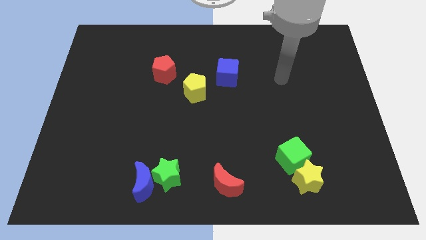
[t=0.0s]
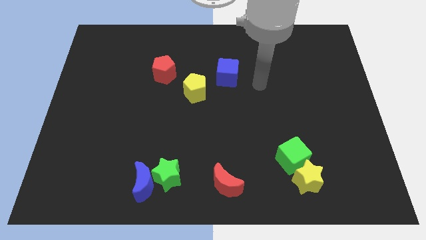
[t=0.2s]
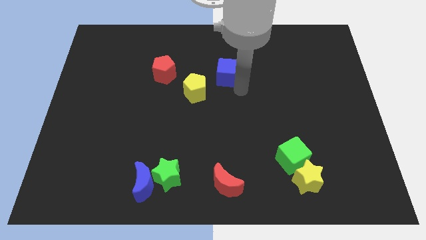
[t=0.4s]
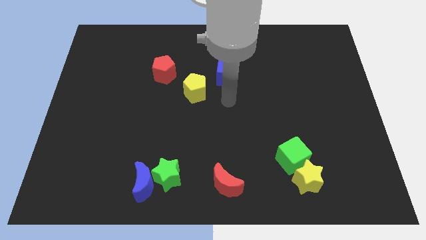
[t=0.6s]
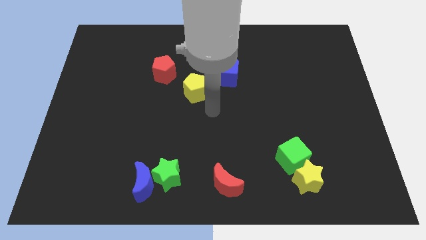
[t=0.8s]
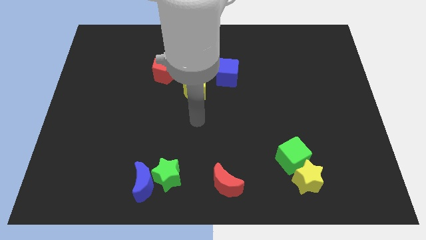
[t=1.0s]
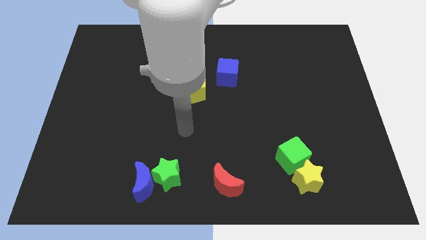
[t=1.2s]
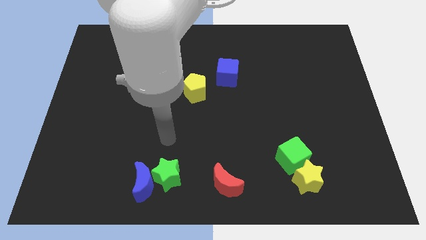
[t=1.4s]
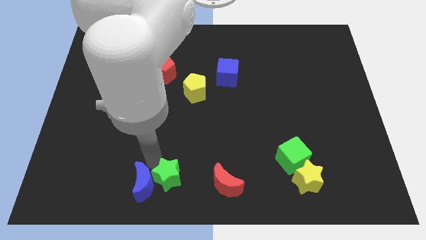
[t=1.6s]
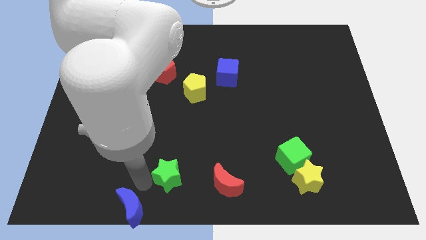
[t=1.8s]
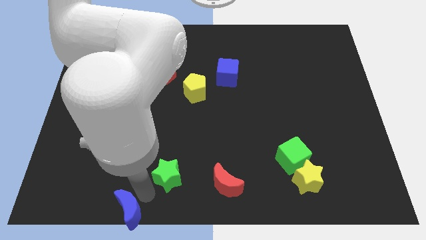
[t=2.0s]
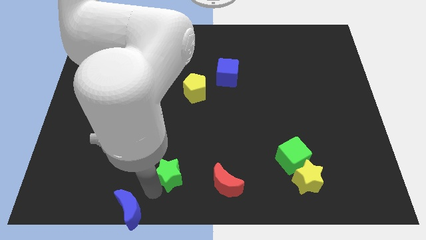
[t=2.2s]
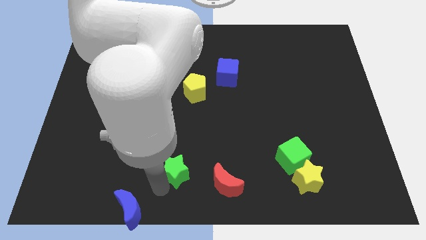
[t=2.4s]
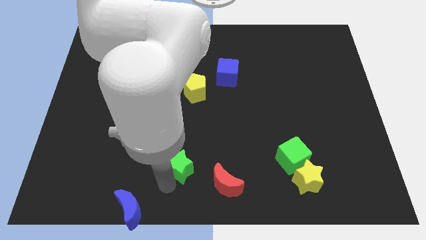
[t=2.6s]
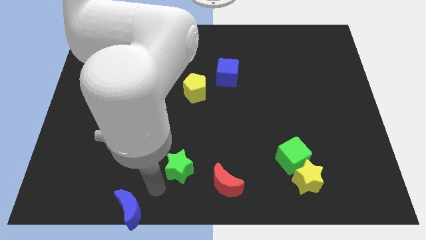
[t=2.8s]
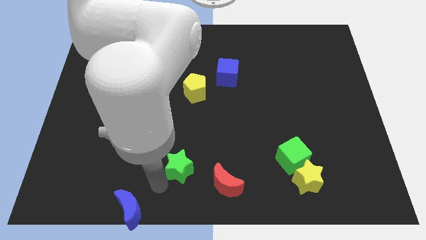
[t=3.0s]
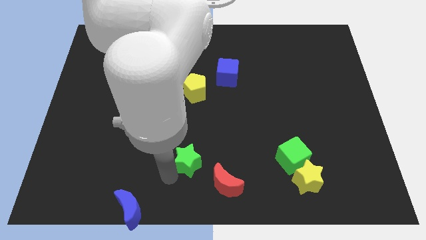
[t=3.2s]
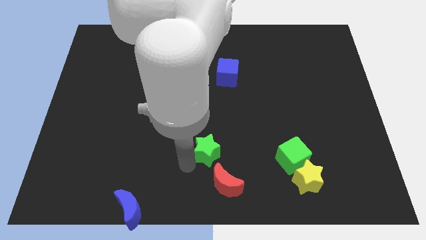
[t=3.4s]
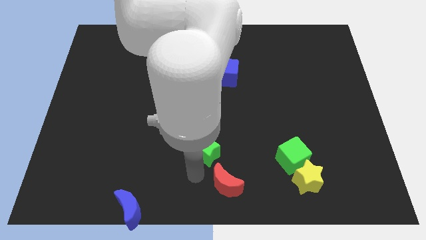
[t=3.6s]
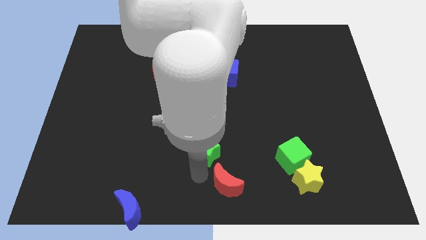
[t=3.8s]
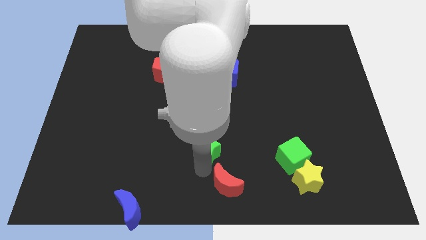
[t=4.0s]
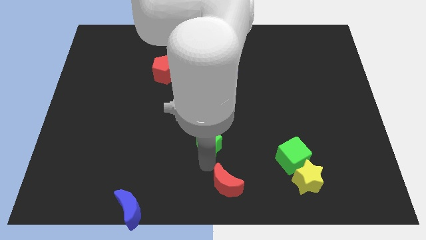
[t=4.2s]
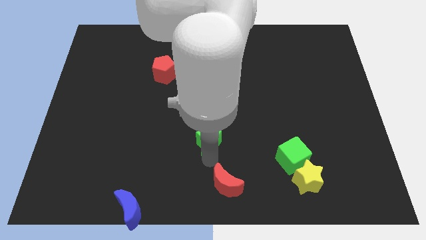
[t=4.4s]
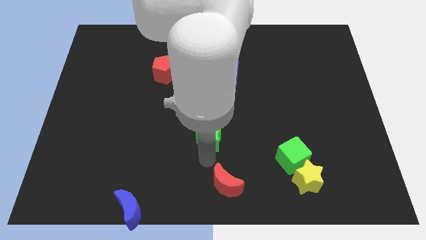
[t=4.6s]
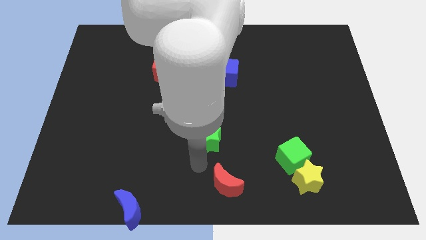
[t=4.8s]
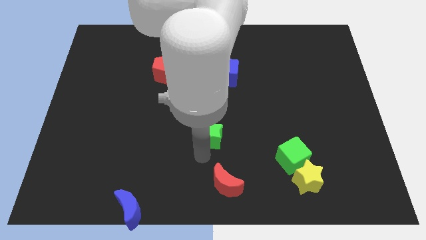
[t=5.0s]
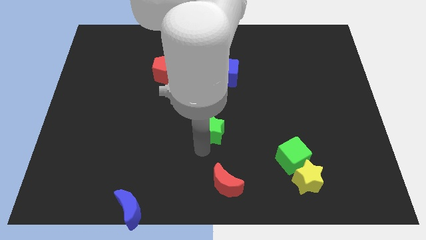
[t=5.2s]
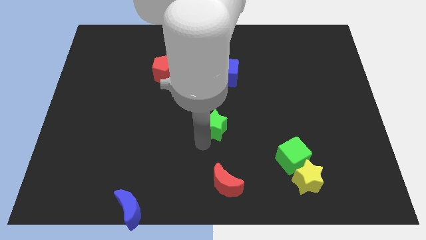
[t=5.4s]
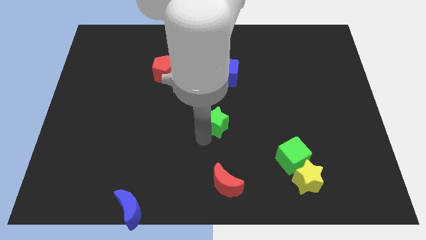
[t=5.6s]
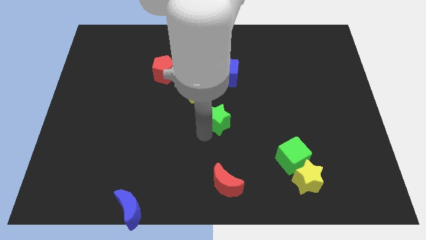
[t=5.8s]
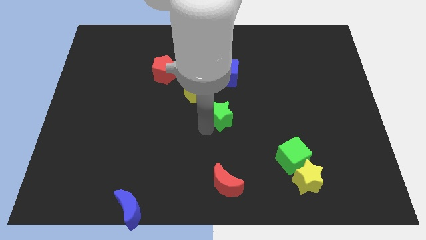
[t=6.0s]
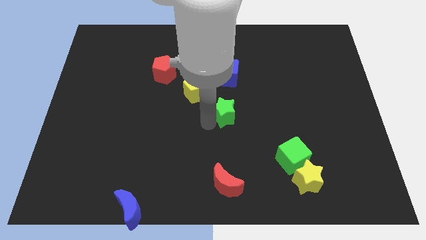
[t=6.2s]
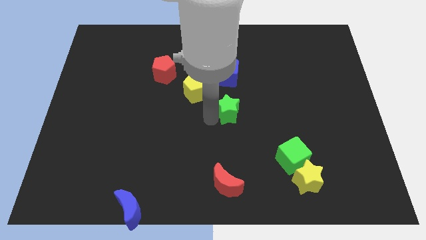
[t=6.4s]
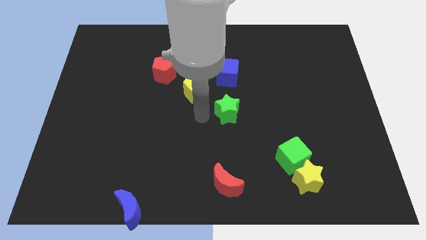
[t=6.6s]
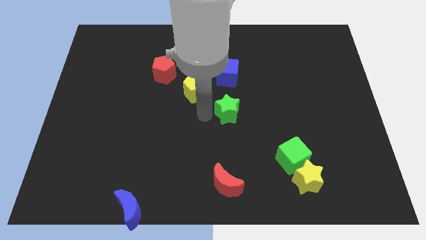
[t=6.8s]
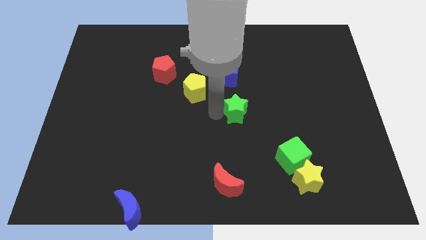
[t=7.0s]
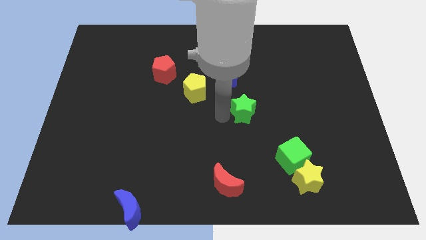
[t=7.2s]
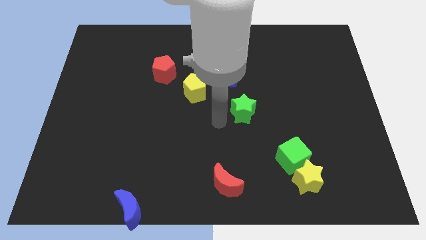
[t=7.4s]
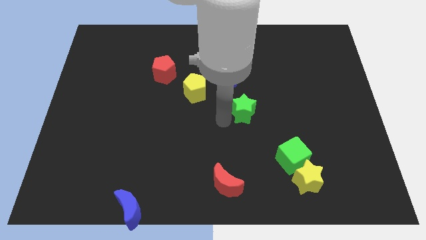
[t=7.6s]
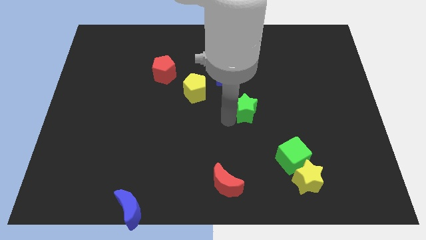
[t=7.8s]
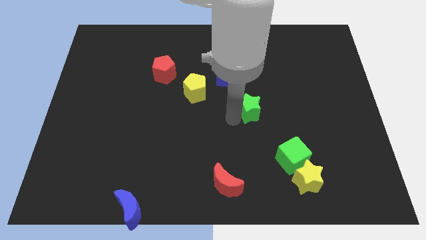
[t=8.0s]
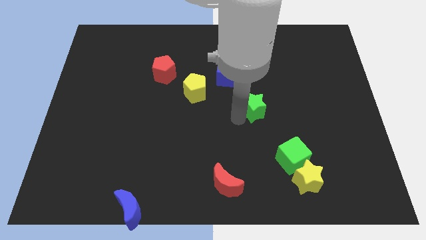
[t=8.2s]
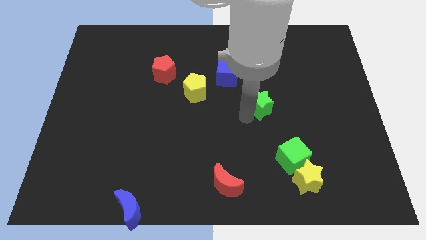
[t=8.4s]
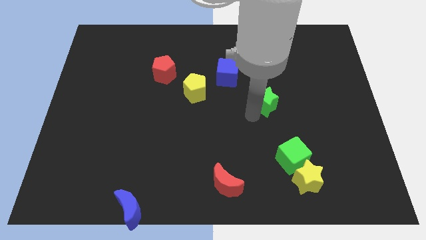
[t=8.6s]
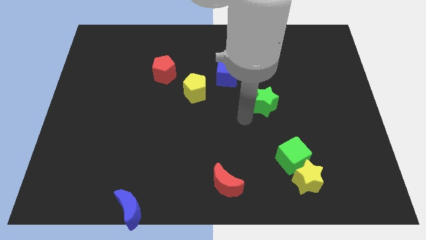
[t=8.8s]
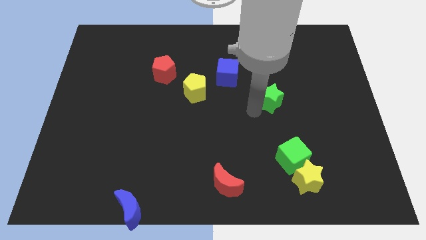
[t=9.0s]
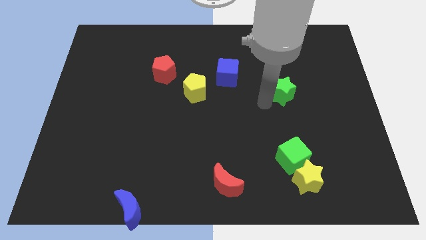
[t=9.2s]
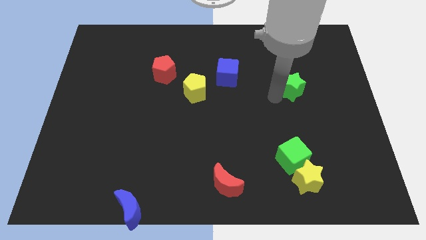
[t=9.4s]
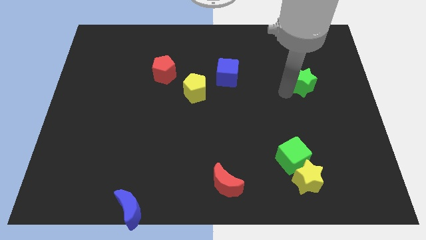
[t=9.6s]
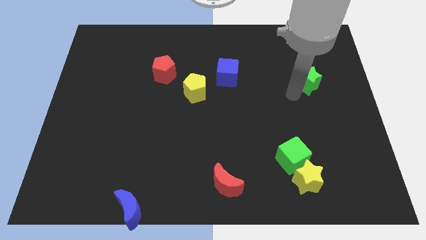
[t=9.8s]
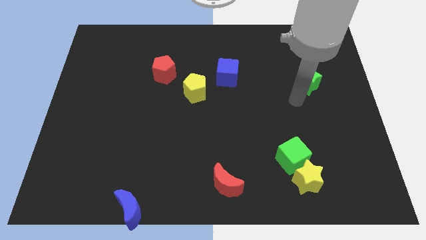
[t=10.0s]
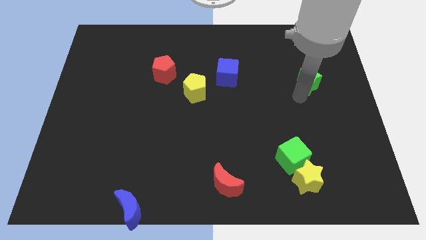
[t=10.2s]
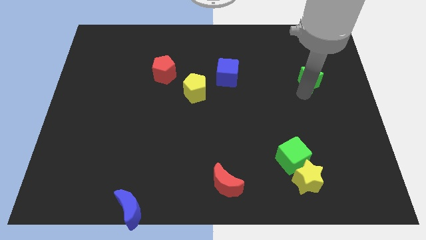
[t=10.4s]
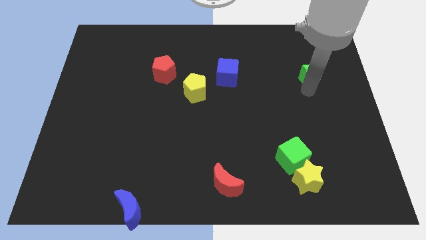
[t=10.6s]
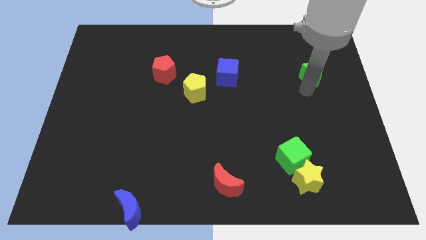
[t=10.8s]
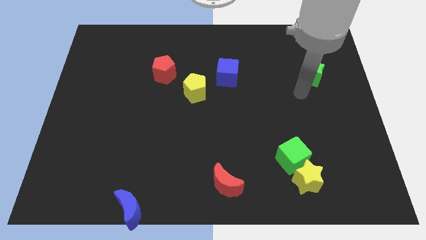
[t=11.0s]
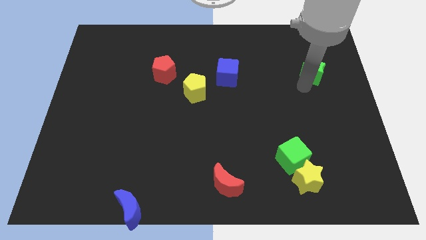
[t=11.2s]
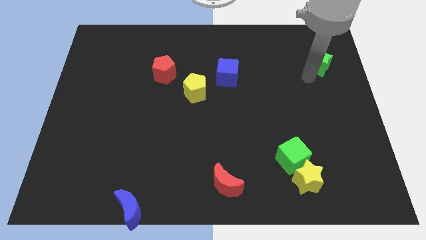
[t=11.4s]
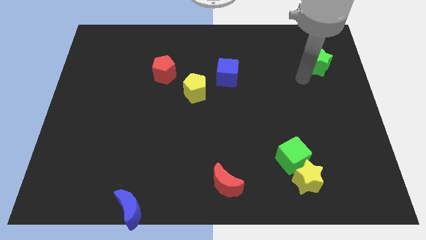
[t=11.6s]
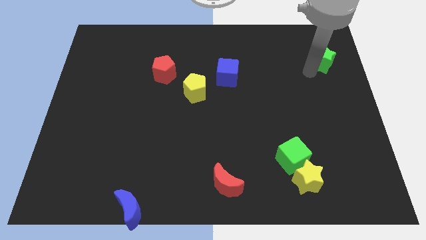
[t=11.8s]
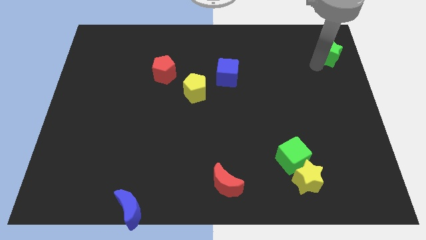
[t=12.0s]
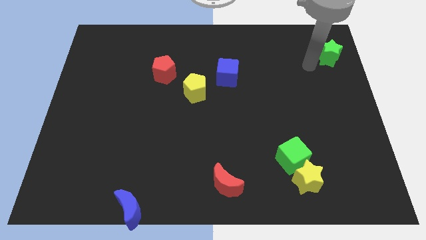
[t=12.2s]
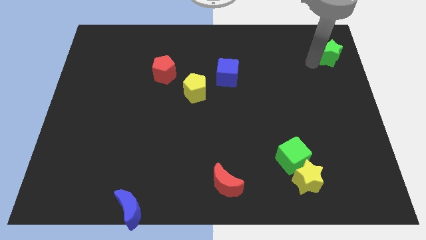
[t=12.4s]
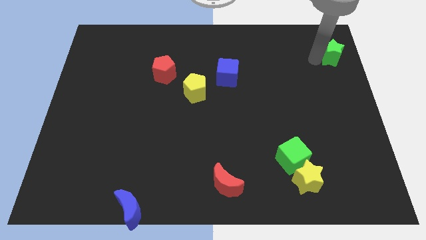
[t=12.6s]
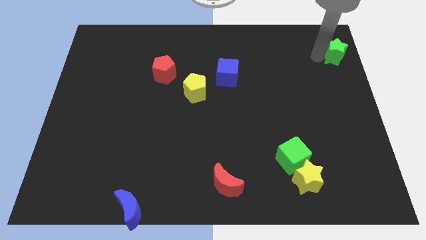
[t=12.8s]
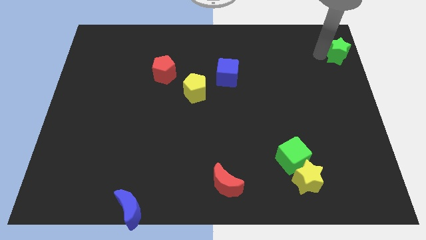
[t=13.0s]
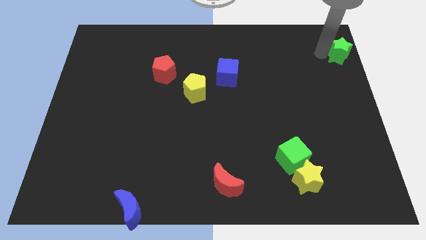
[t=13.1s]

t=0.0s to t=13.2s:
push the green star to the upper right corner
